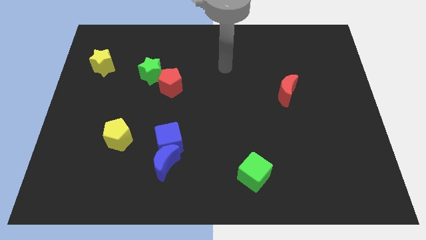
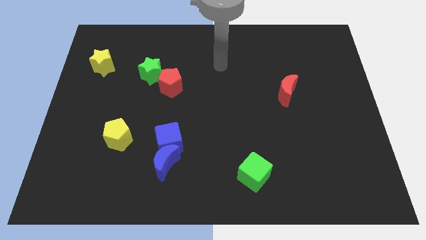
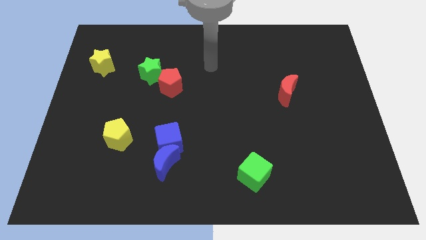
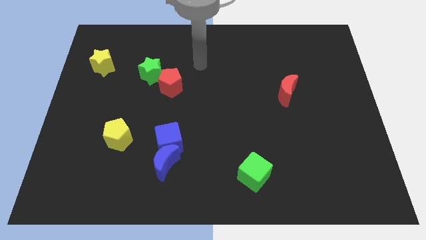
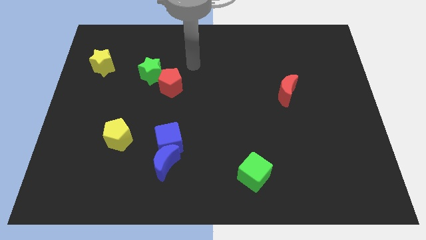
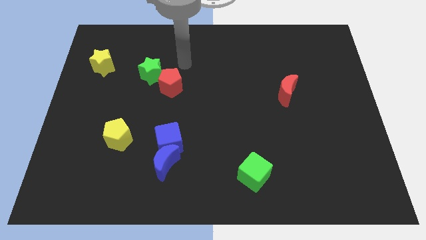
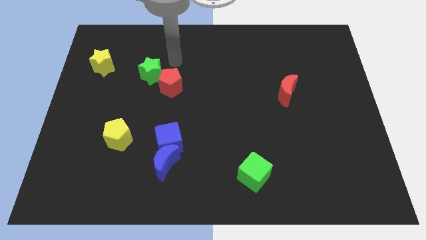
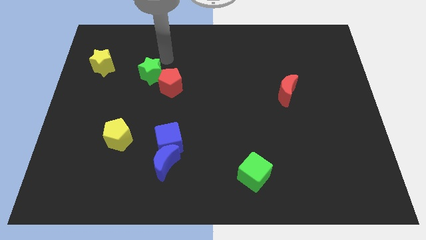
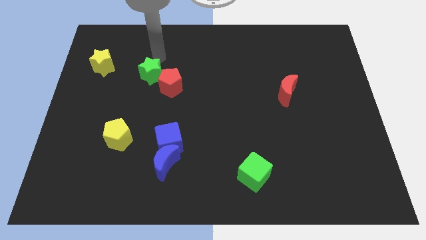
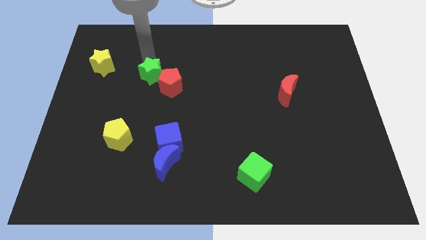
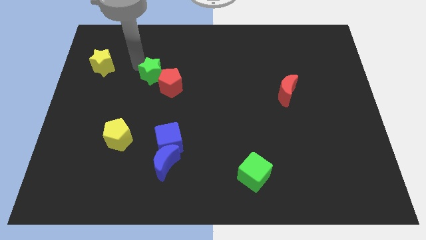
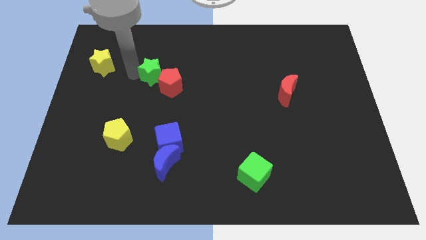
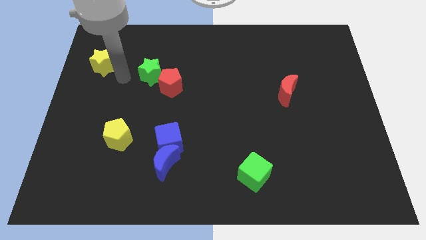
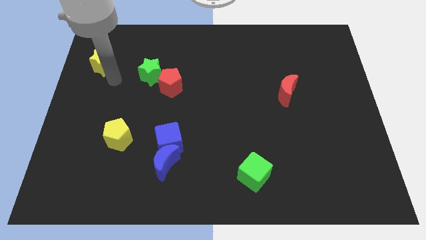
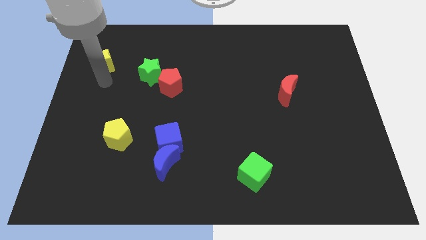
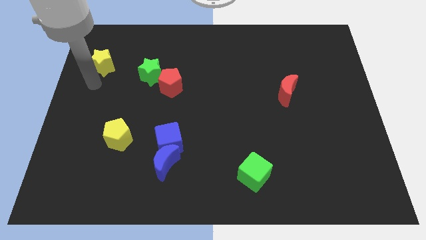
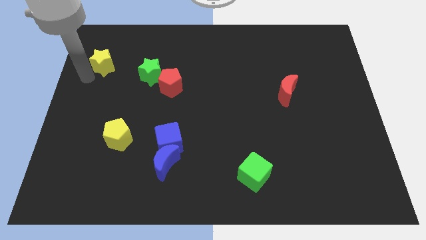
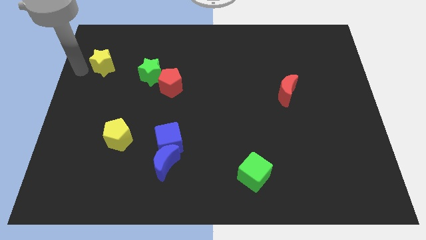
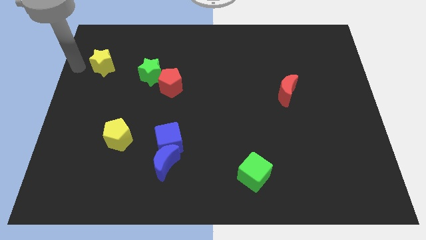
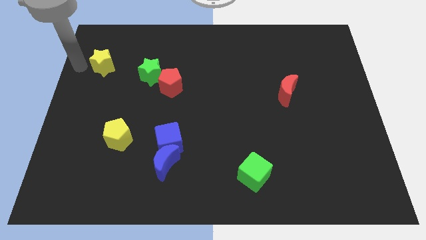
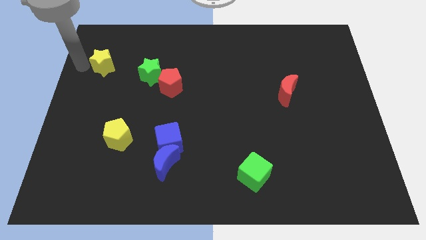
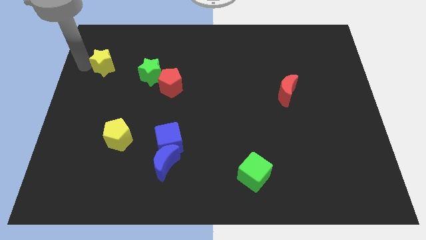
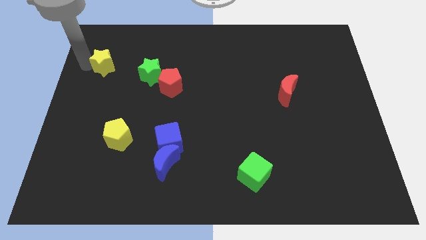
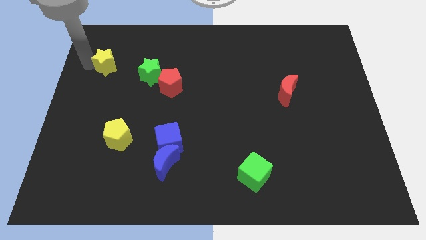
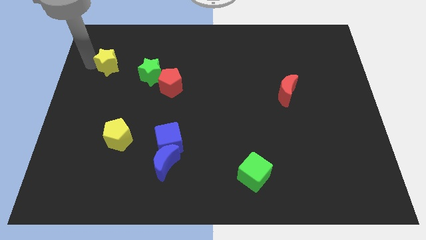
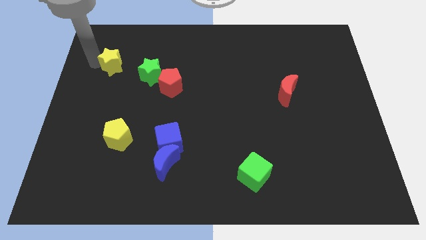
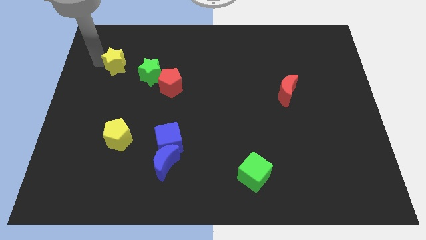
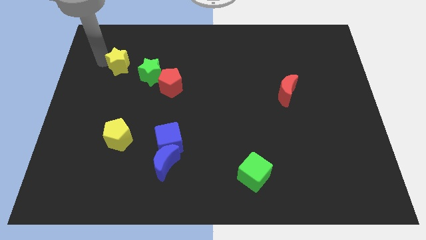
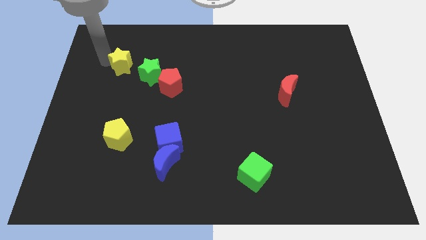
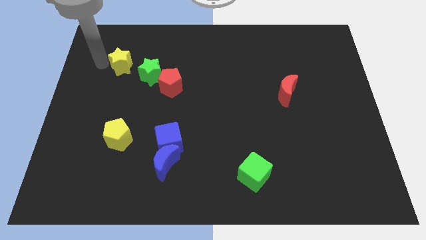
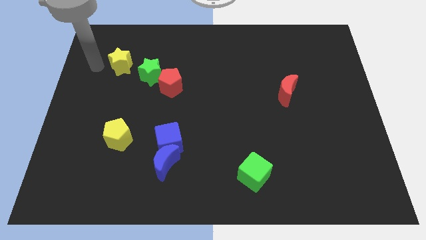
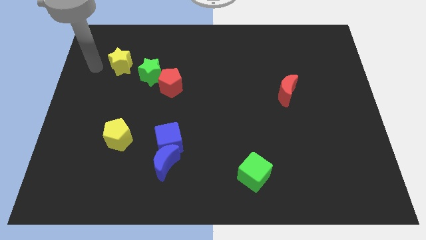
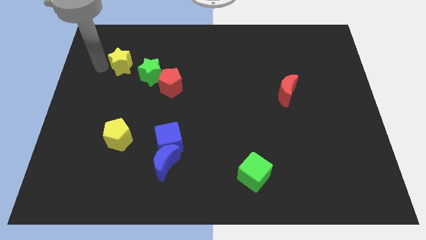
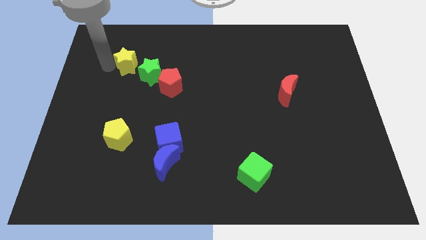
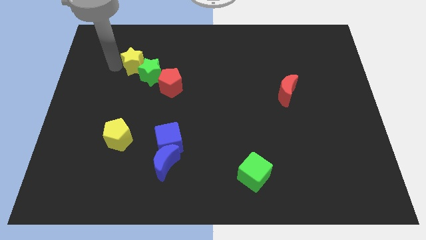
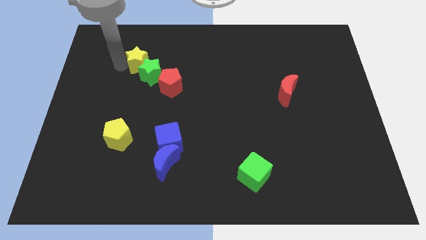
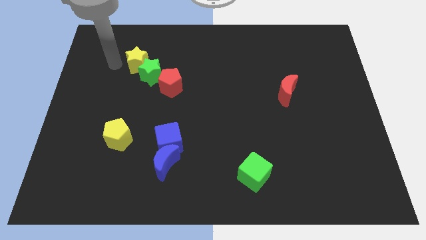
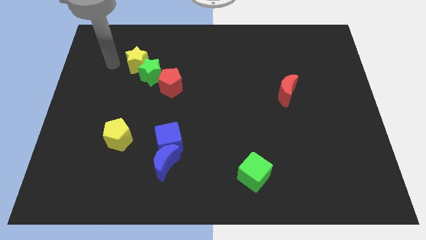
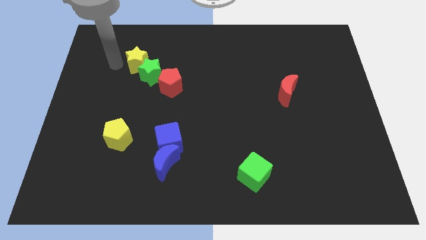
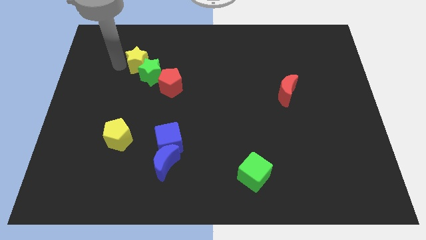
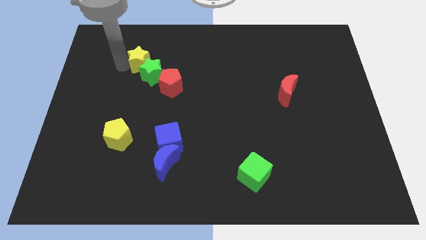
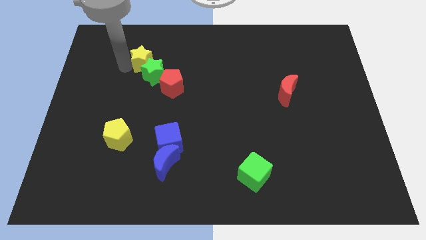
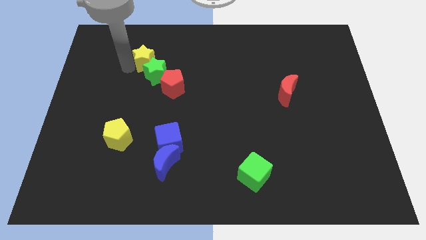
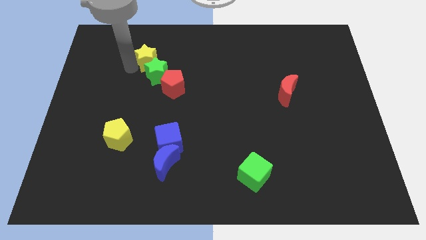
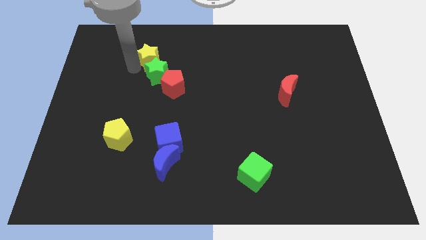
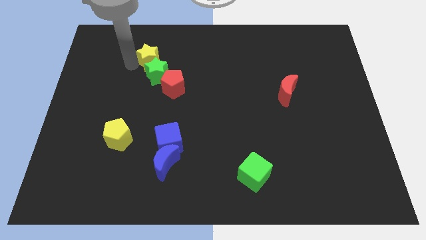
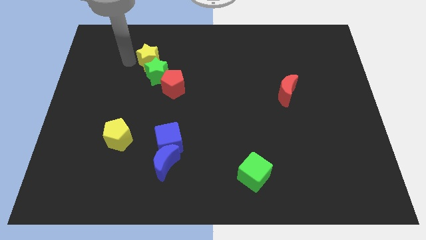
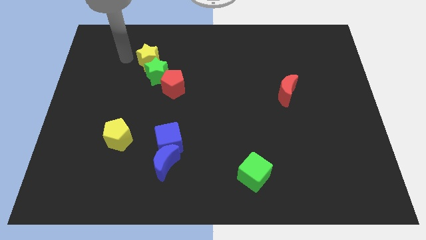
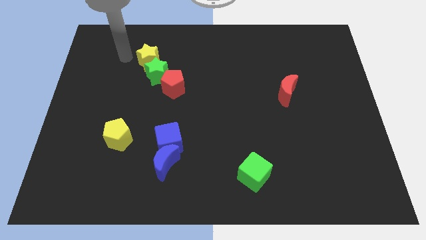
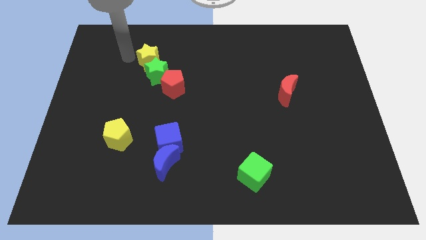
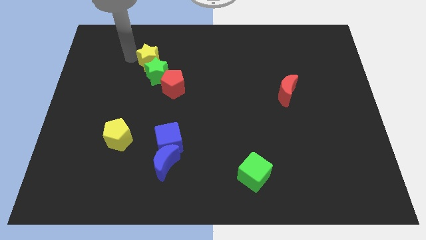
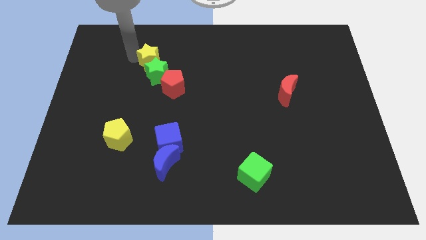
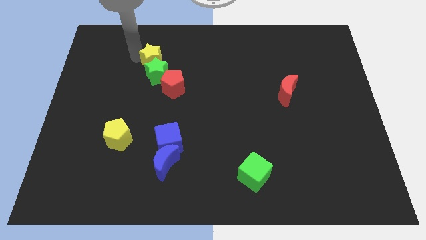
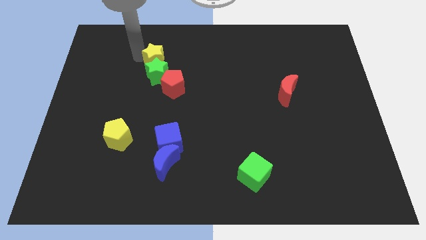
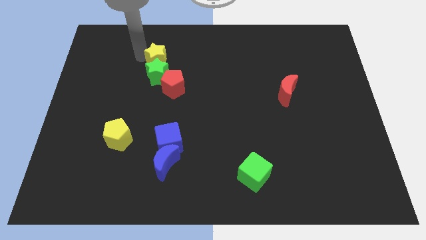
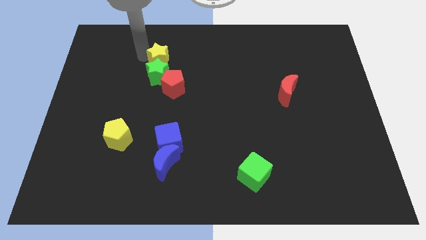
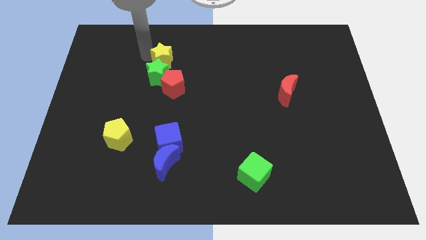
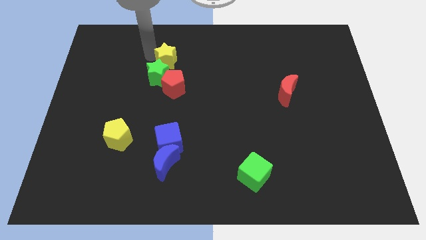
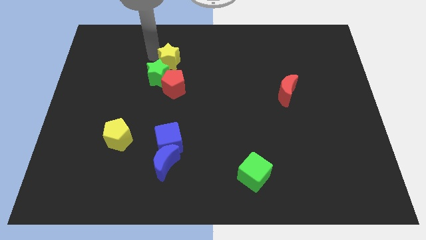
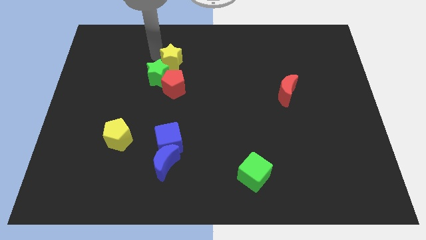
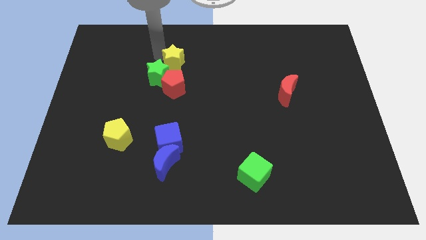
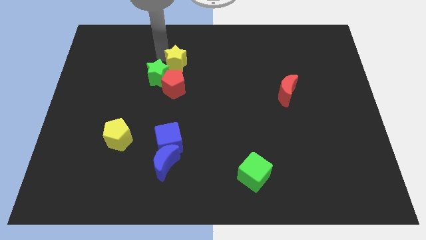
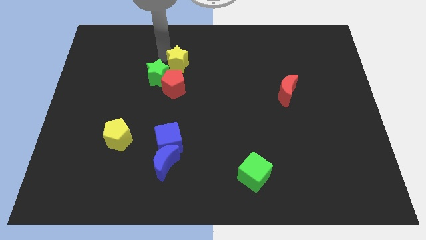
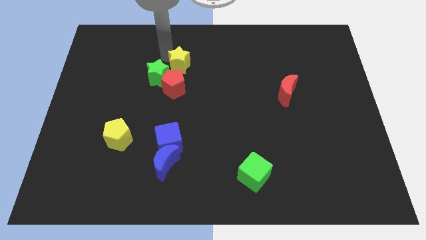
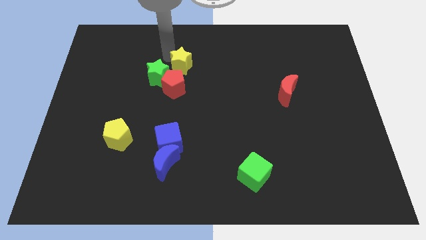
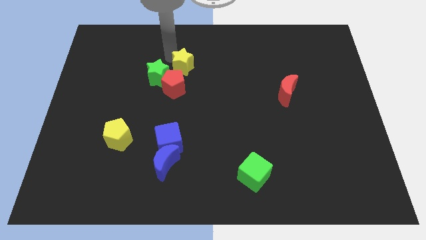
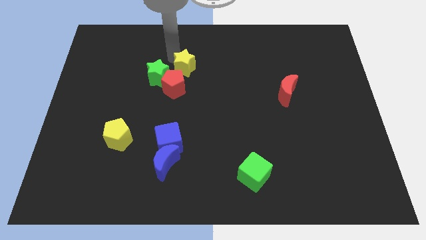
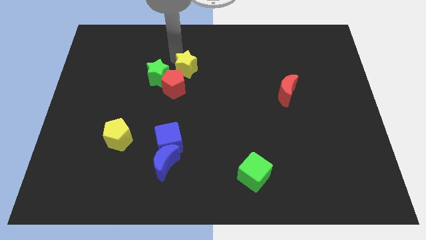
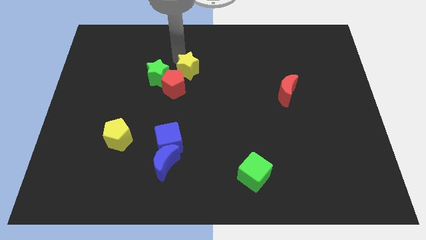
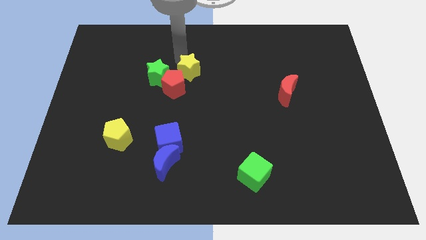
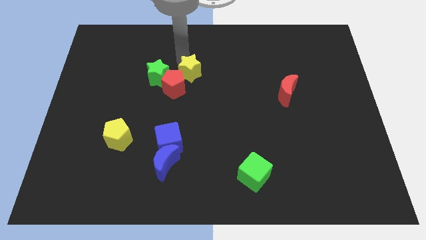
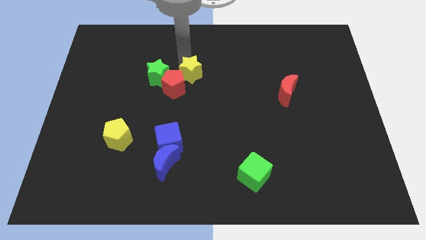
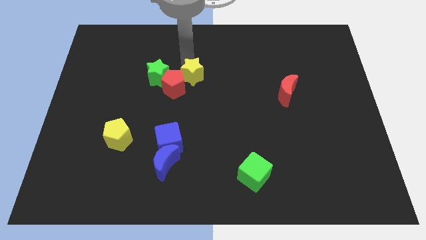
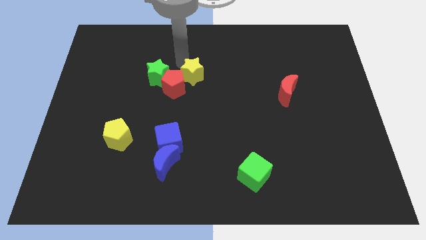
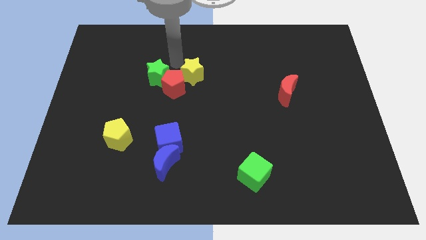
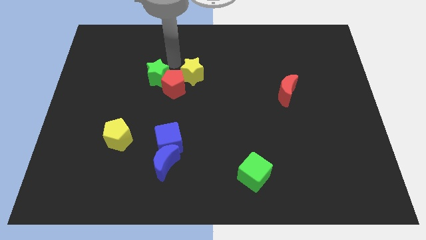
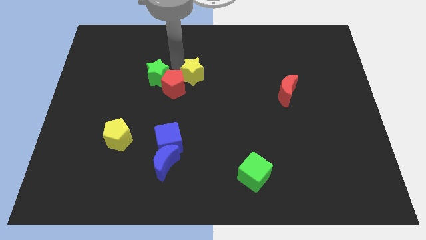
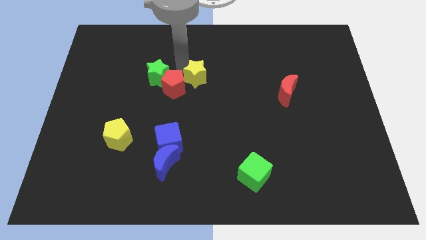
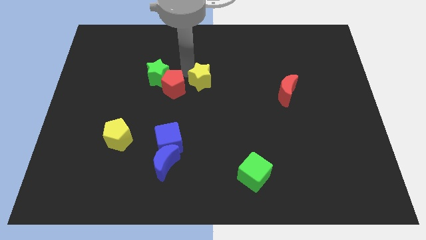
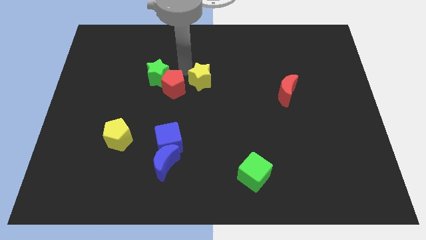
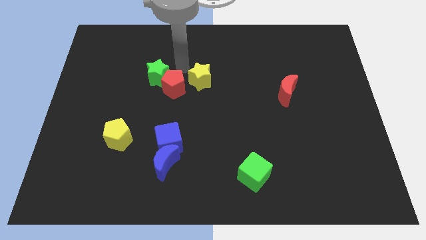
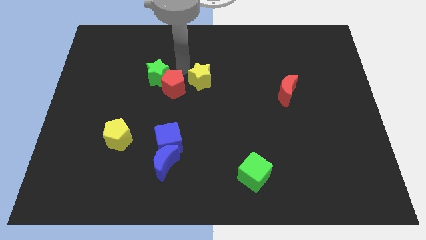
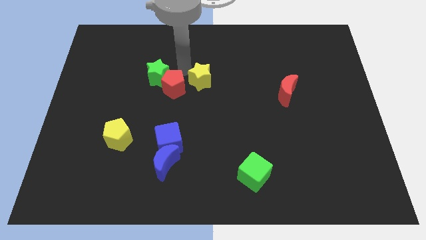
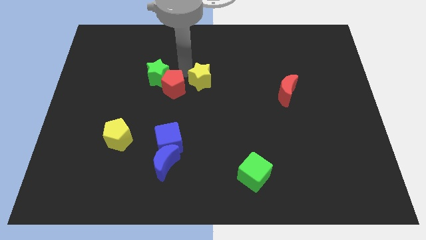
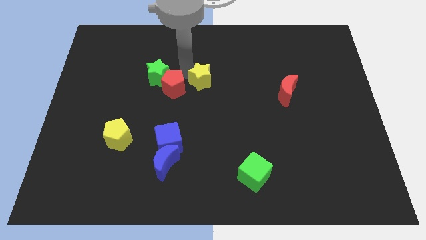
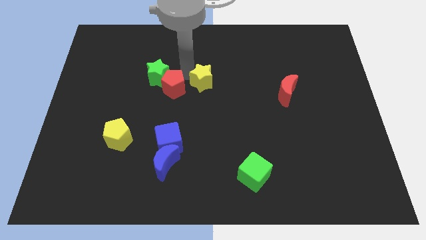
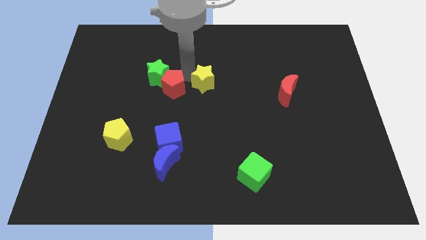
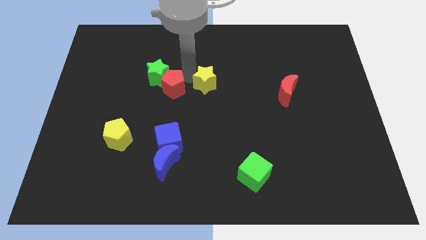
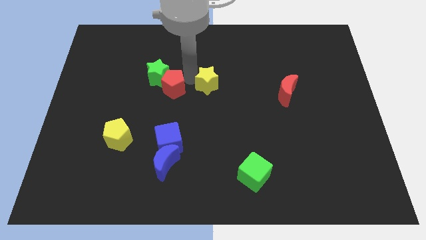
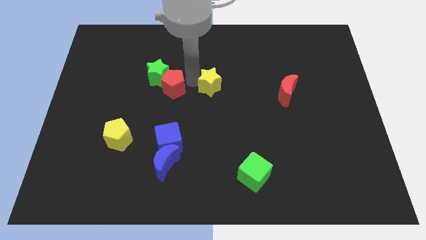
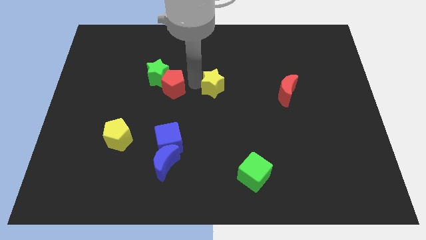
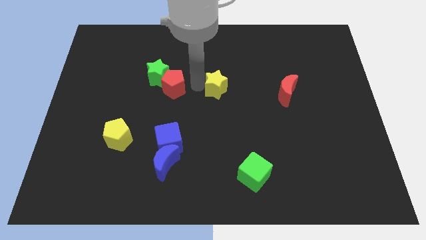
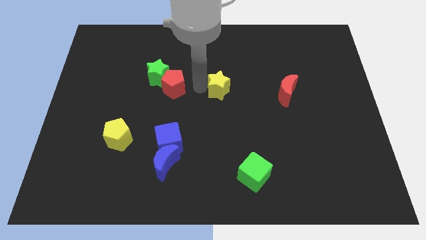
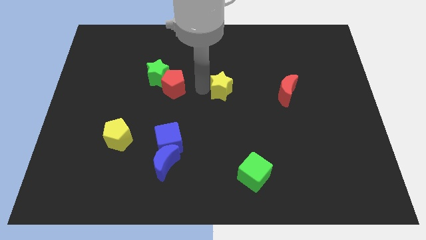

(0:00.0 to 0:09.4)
push the yellow star left of the red moon
